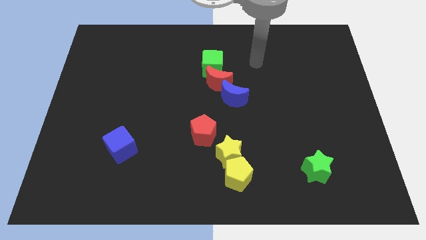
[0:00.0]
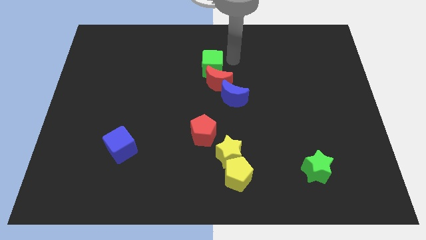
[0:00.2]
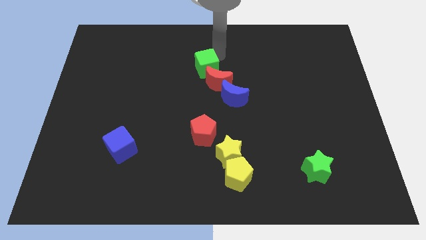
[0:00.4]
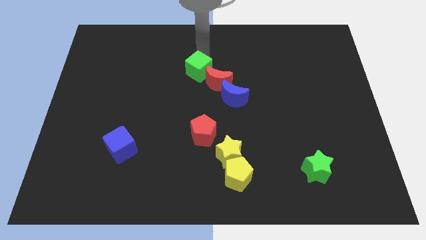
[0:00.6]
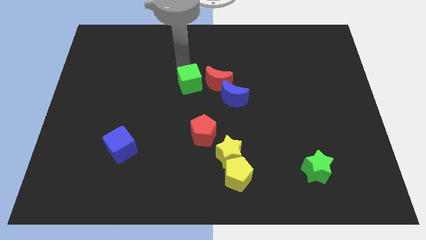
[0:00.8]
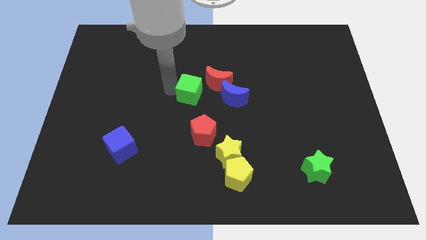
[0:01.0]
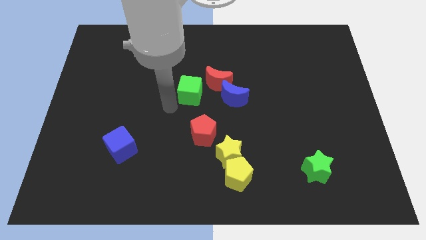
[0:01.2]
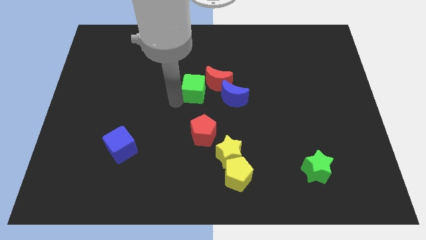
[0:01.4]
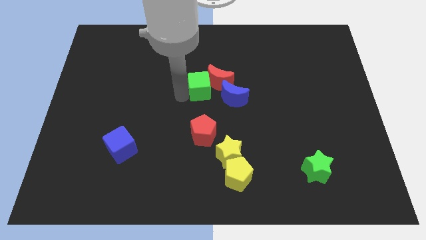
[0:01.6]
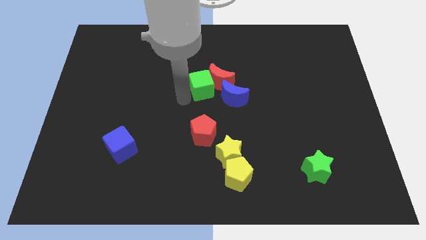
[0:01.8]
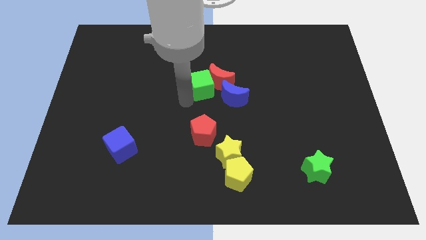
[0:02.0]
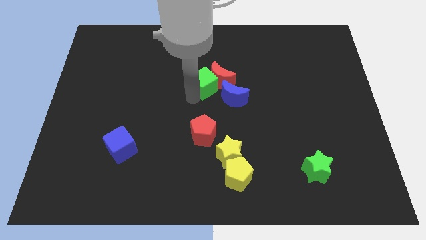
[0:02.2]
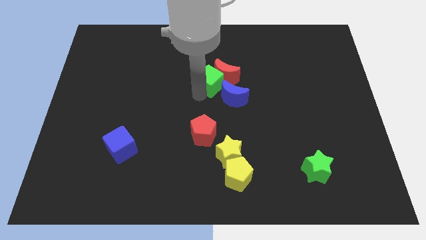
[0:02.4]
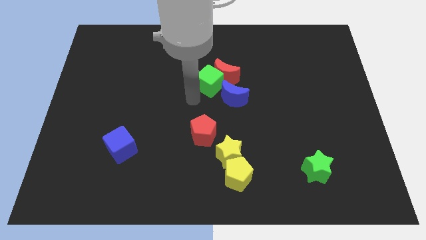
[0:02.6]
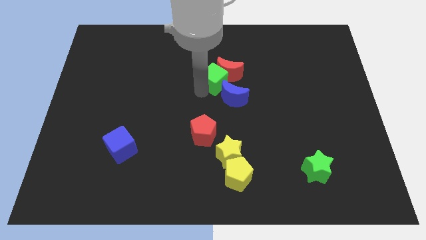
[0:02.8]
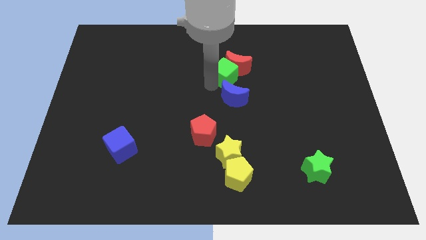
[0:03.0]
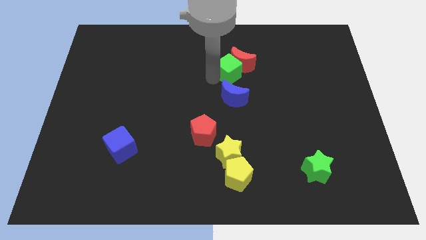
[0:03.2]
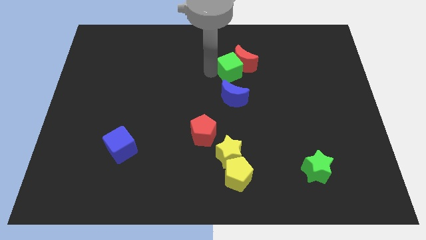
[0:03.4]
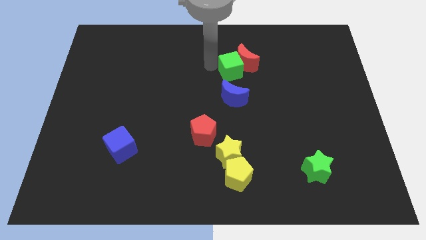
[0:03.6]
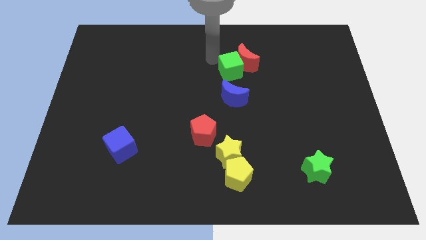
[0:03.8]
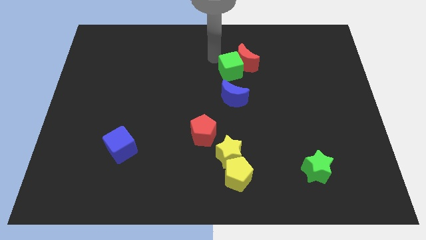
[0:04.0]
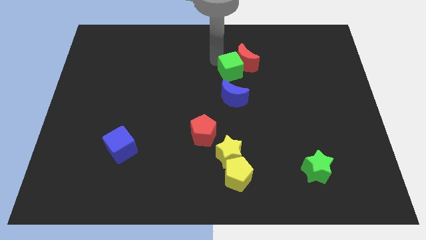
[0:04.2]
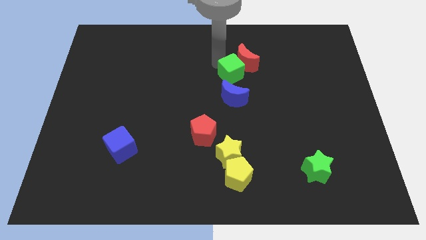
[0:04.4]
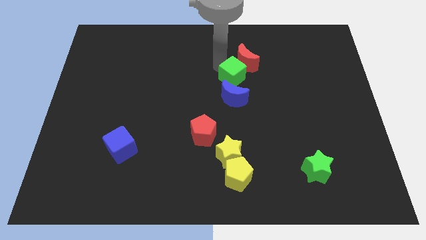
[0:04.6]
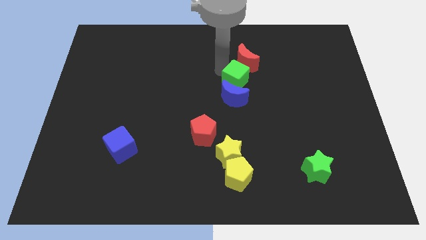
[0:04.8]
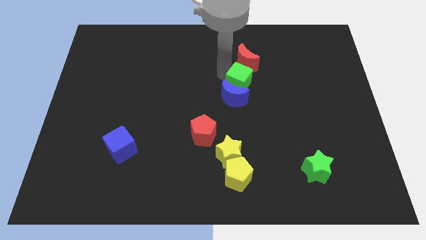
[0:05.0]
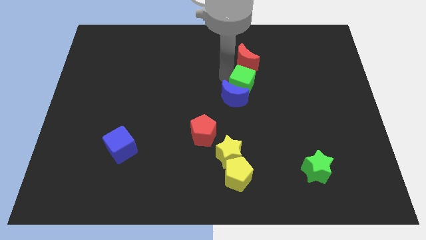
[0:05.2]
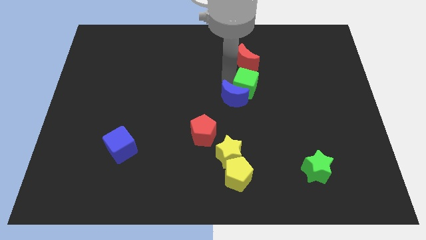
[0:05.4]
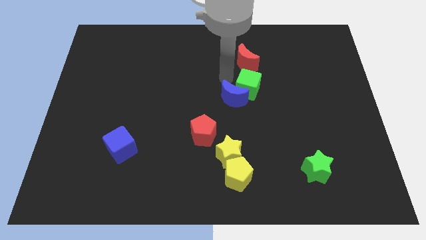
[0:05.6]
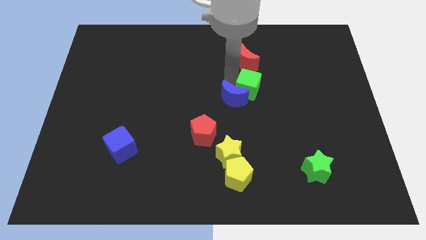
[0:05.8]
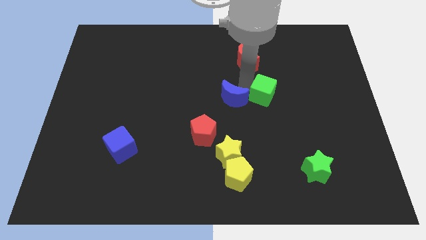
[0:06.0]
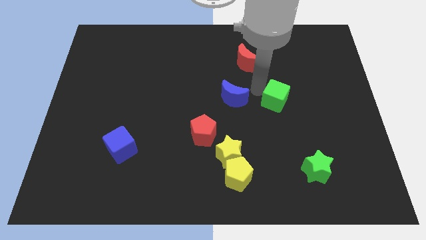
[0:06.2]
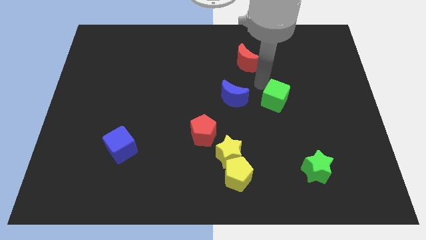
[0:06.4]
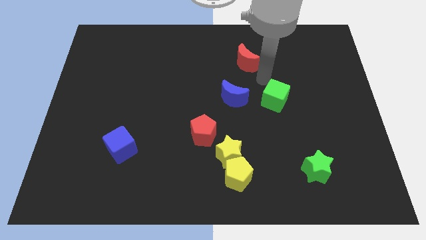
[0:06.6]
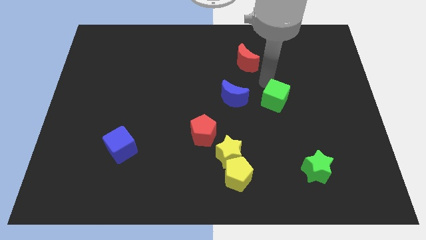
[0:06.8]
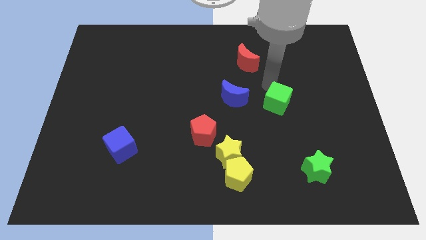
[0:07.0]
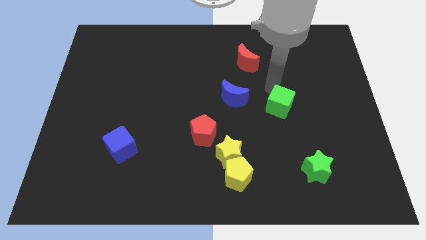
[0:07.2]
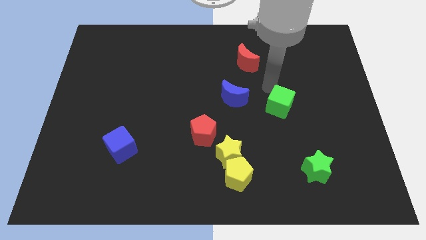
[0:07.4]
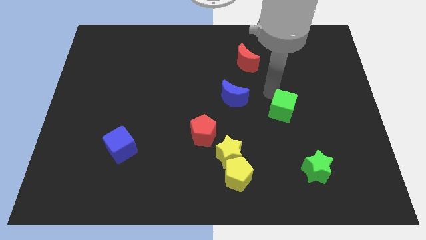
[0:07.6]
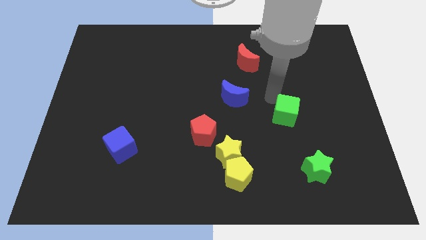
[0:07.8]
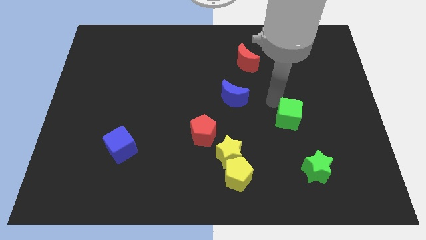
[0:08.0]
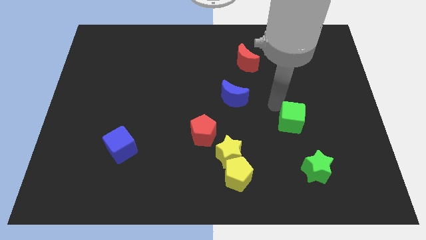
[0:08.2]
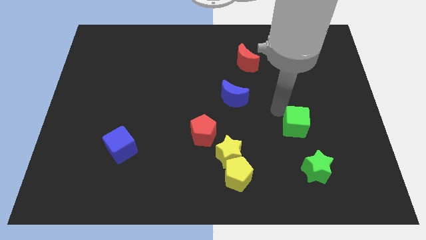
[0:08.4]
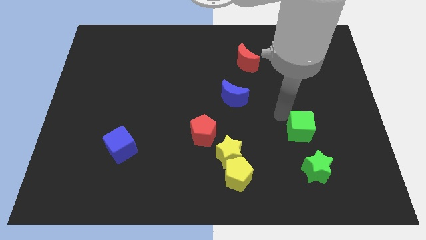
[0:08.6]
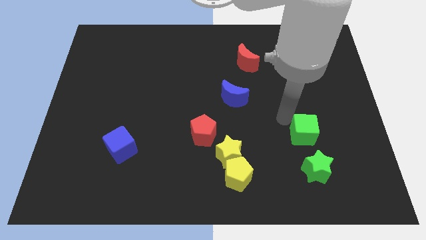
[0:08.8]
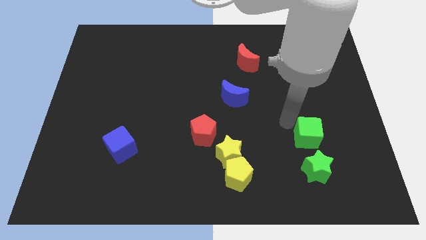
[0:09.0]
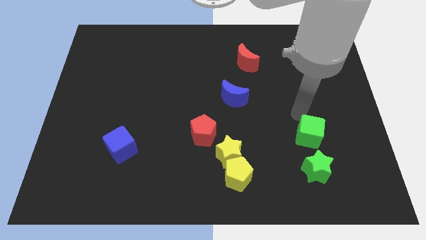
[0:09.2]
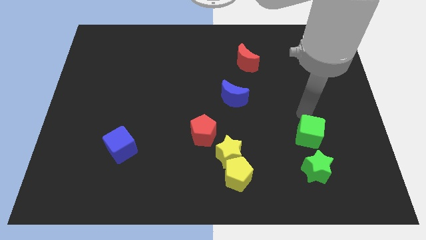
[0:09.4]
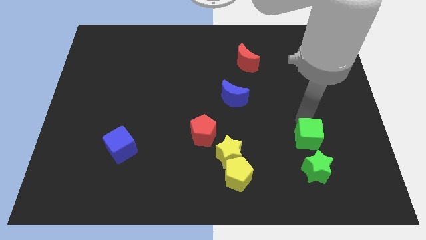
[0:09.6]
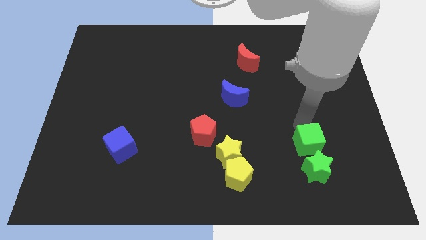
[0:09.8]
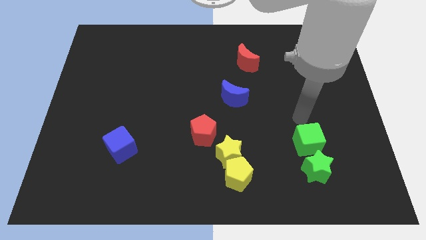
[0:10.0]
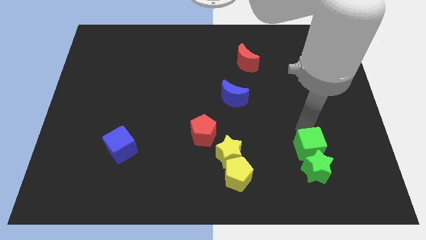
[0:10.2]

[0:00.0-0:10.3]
push the green cube close to the green star

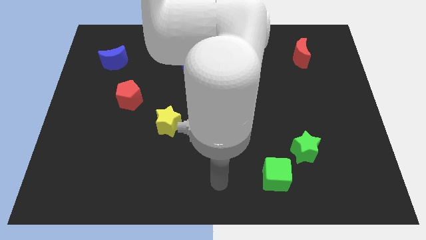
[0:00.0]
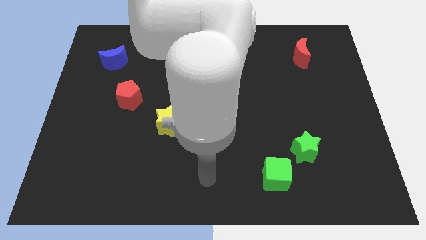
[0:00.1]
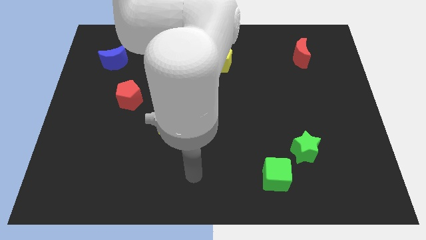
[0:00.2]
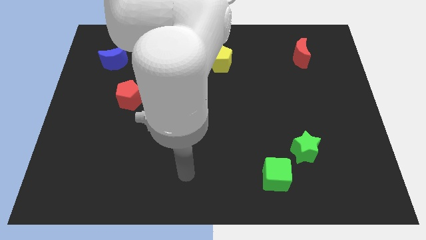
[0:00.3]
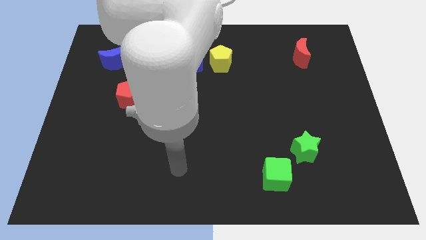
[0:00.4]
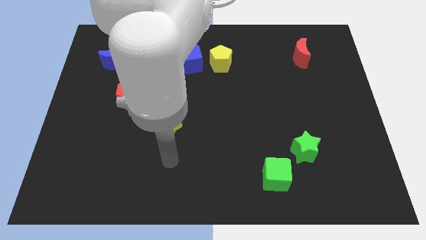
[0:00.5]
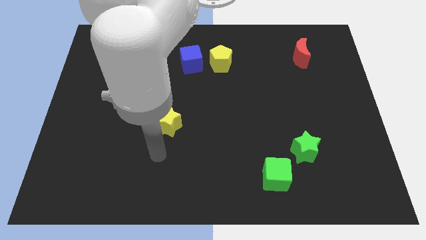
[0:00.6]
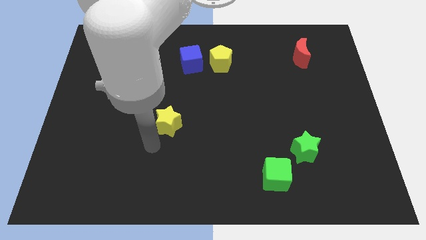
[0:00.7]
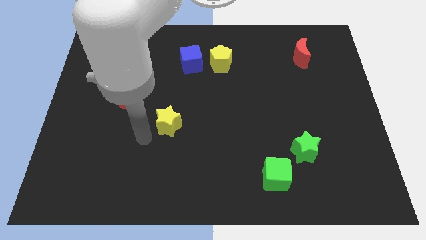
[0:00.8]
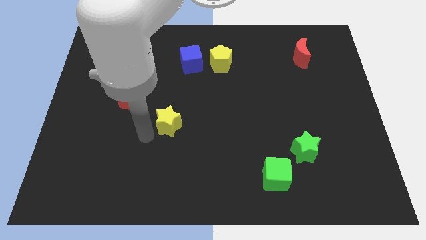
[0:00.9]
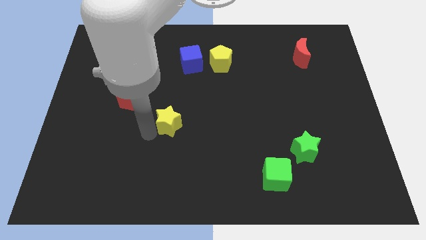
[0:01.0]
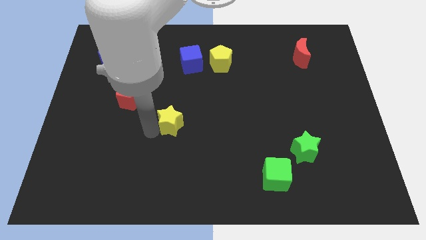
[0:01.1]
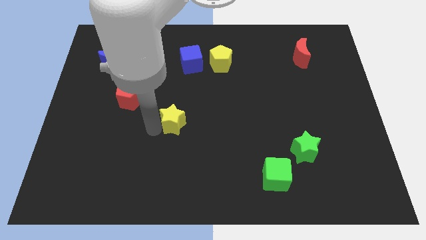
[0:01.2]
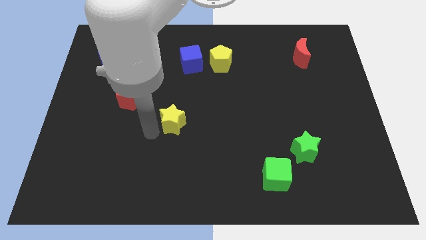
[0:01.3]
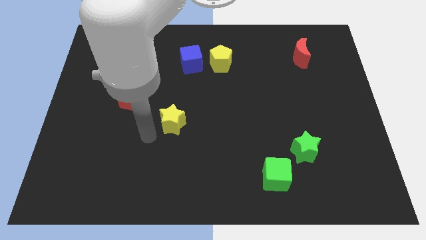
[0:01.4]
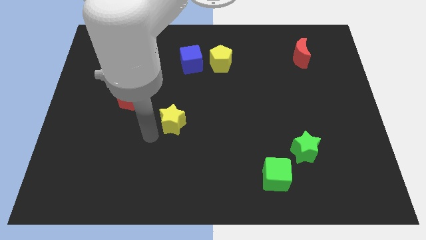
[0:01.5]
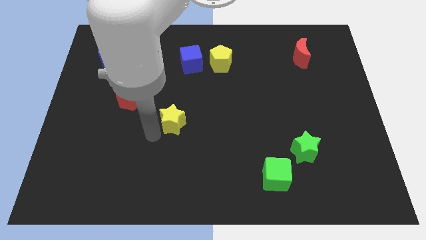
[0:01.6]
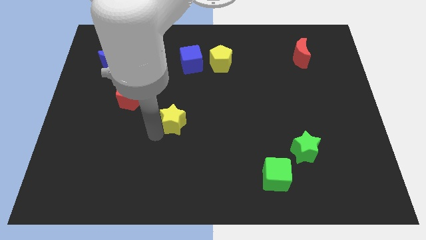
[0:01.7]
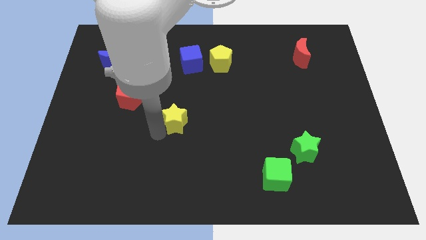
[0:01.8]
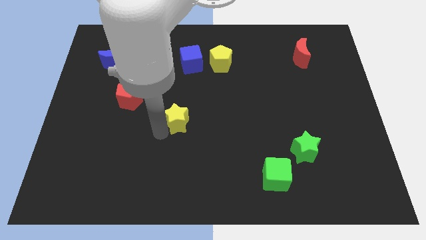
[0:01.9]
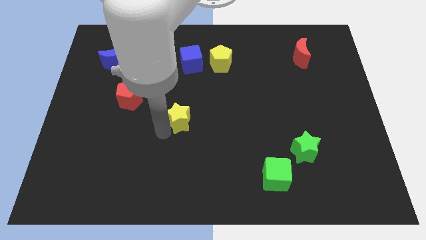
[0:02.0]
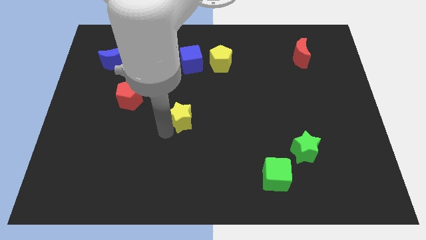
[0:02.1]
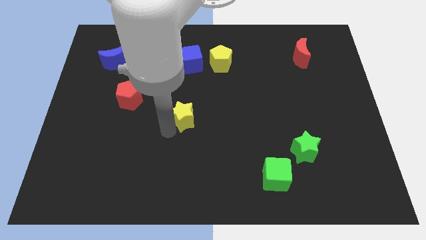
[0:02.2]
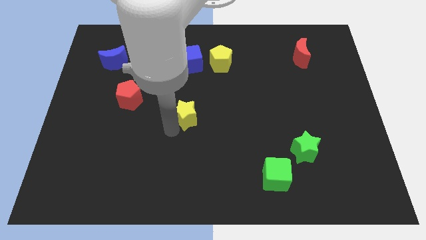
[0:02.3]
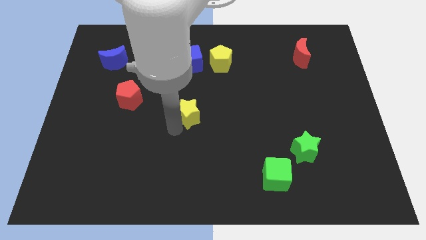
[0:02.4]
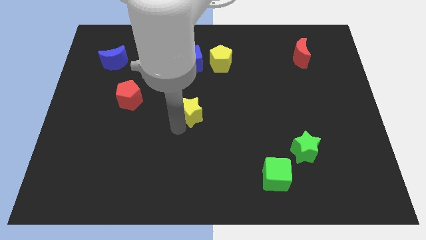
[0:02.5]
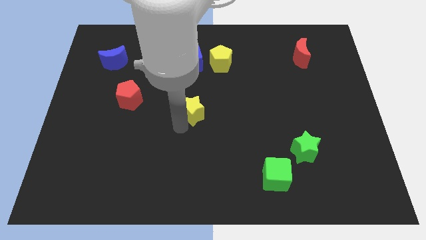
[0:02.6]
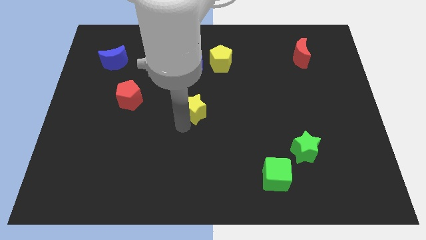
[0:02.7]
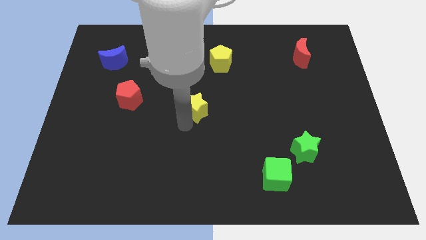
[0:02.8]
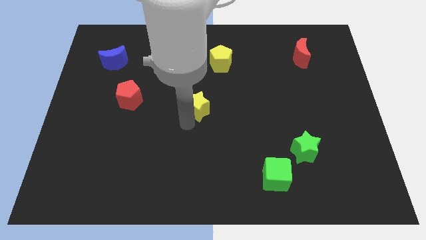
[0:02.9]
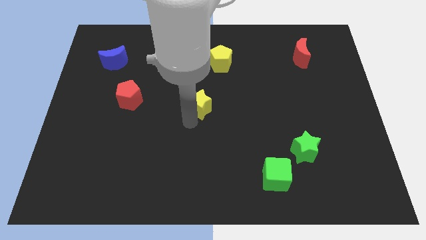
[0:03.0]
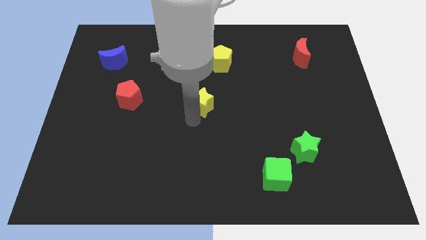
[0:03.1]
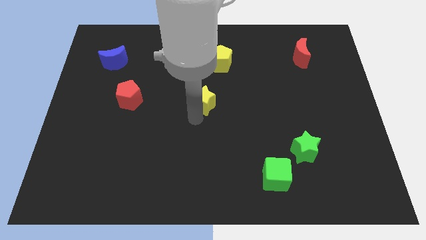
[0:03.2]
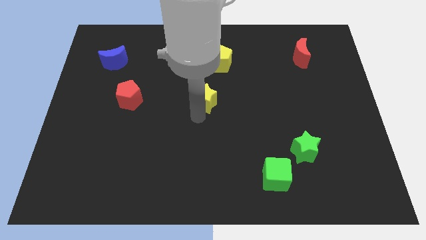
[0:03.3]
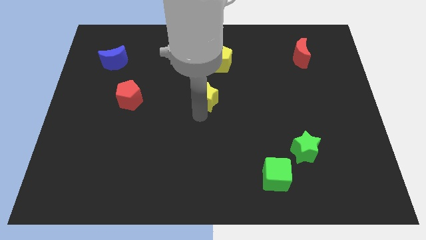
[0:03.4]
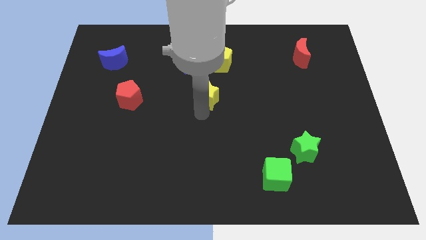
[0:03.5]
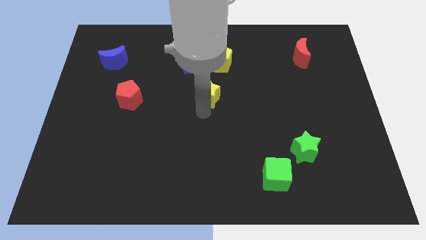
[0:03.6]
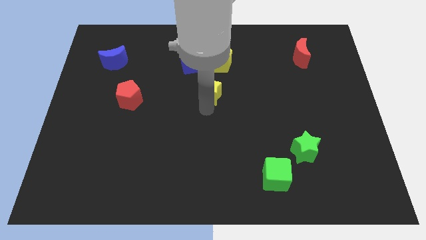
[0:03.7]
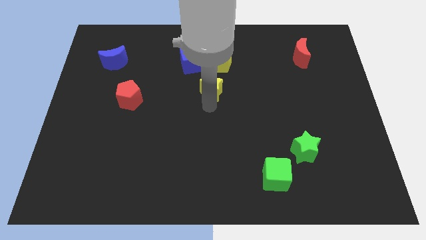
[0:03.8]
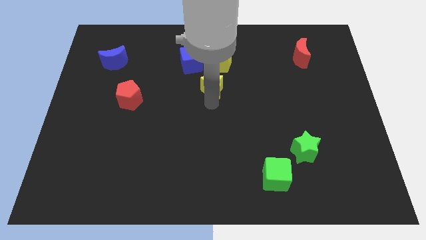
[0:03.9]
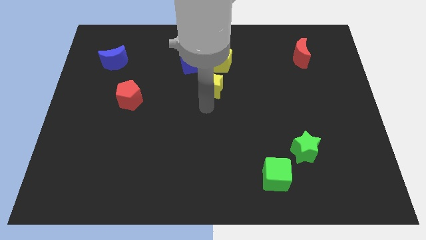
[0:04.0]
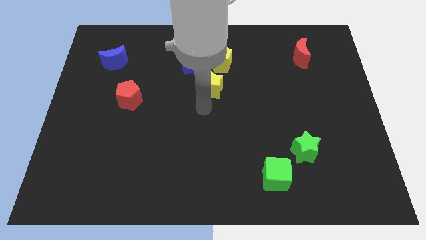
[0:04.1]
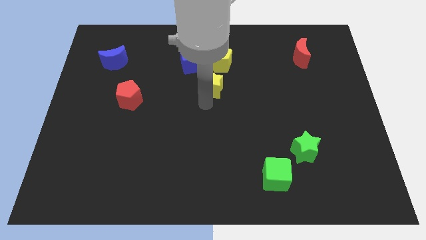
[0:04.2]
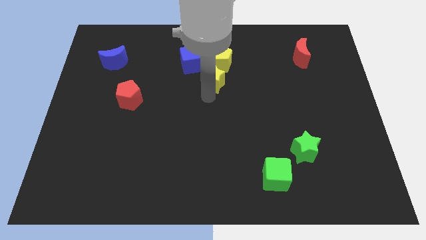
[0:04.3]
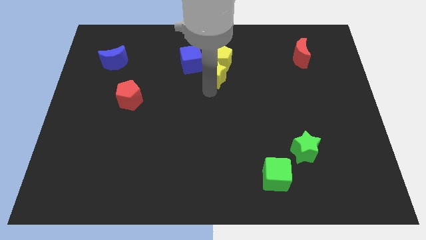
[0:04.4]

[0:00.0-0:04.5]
push the yellow star towards the yellow pentagon
